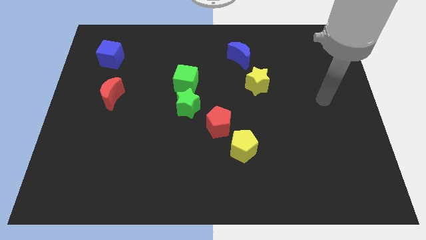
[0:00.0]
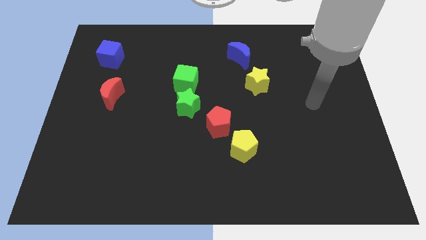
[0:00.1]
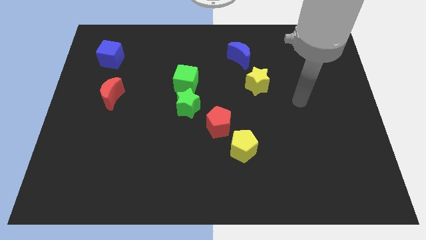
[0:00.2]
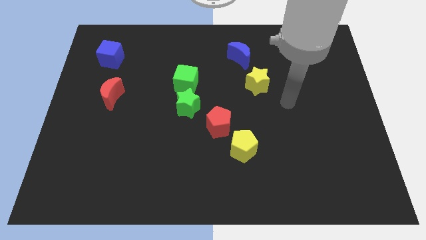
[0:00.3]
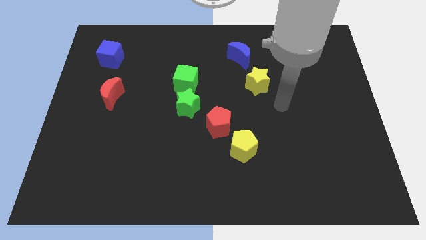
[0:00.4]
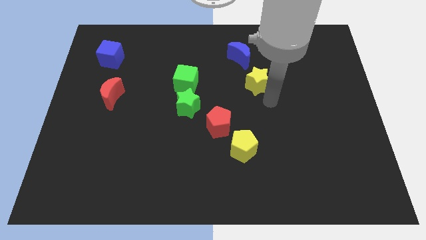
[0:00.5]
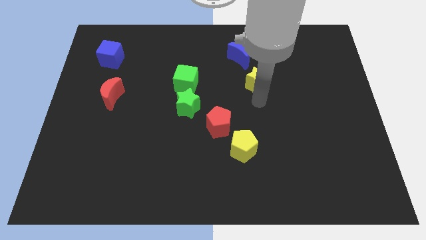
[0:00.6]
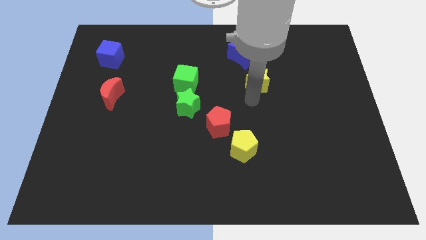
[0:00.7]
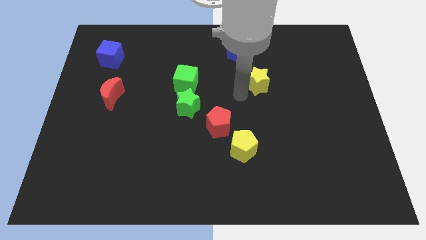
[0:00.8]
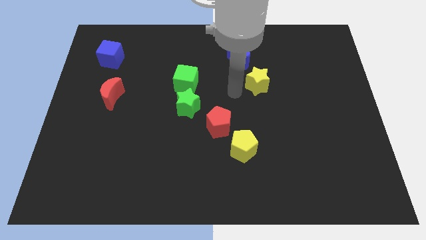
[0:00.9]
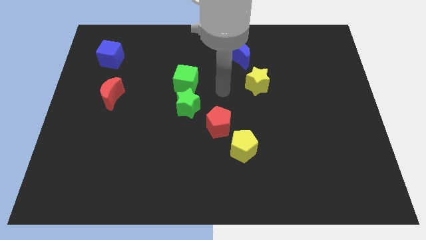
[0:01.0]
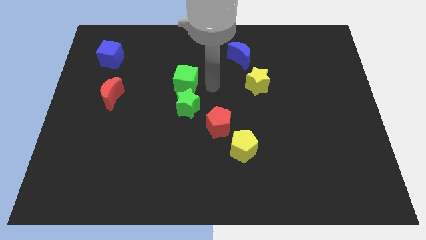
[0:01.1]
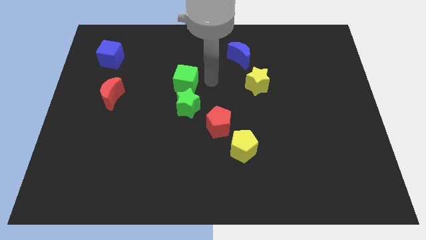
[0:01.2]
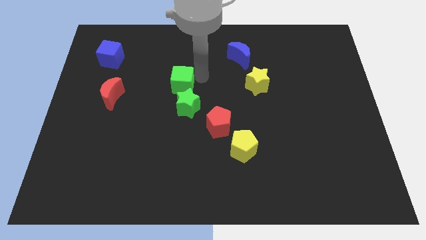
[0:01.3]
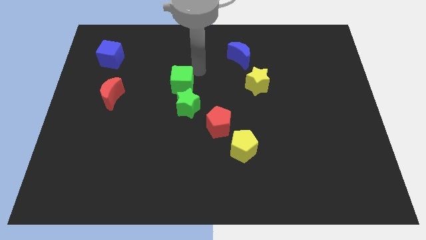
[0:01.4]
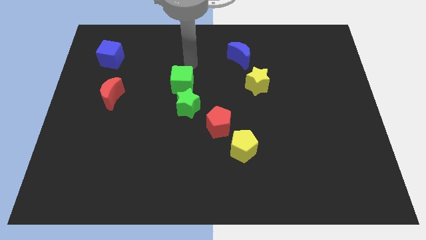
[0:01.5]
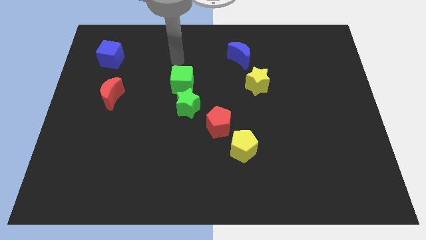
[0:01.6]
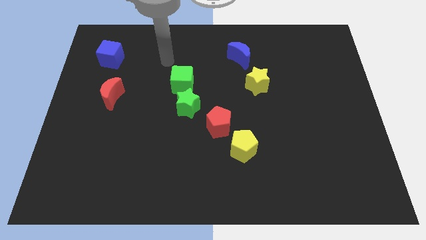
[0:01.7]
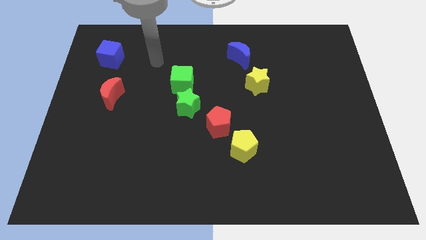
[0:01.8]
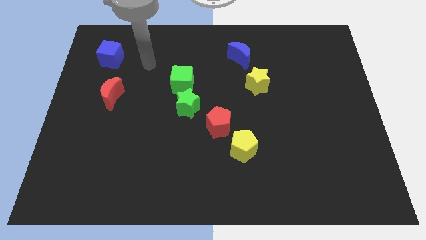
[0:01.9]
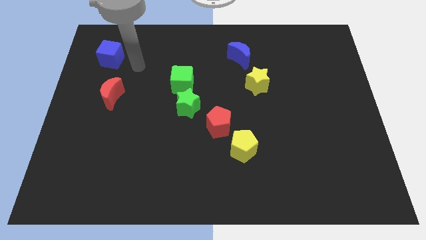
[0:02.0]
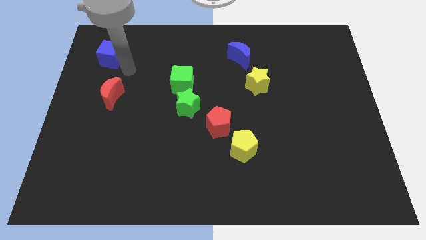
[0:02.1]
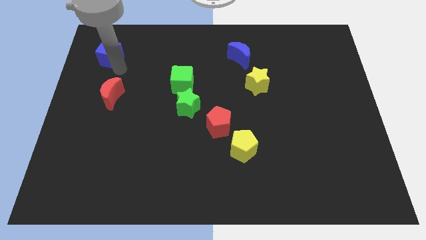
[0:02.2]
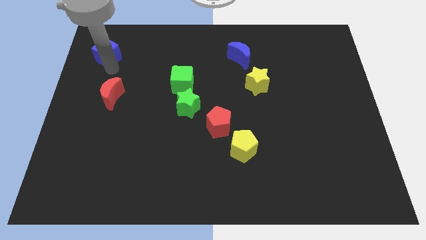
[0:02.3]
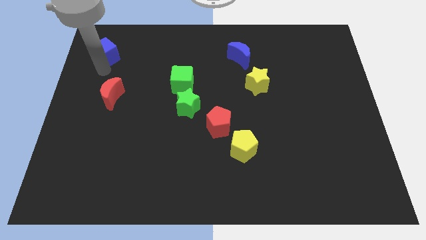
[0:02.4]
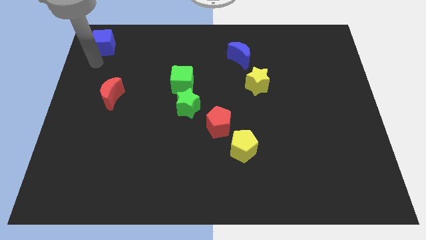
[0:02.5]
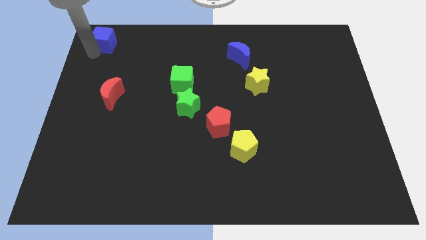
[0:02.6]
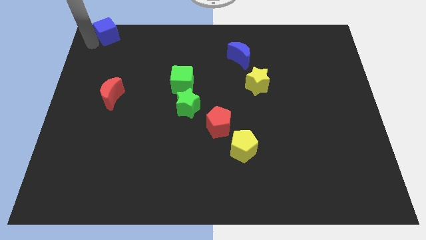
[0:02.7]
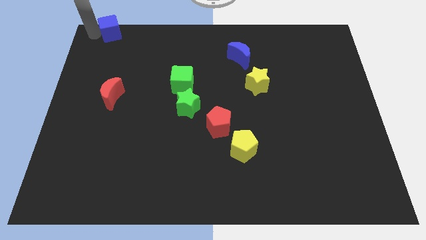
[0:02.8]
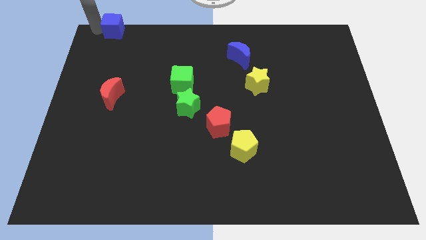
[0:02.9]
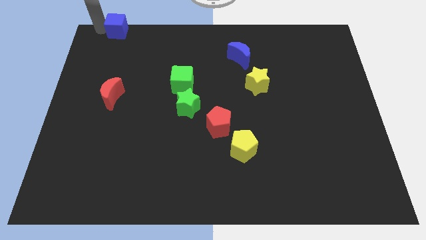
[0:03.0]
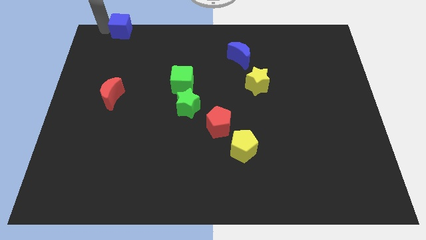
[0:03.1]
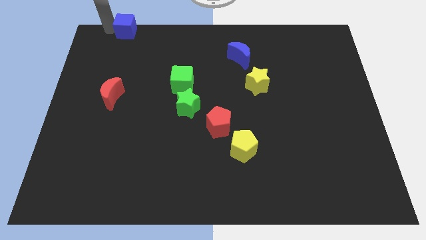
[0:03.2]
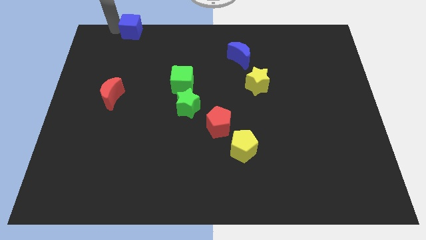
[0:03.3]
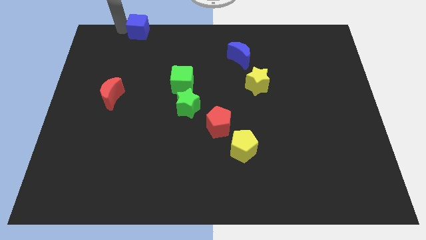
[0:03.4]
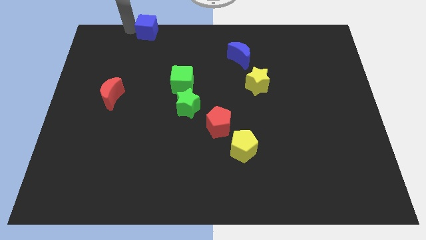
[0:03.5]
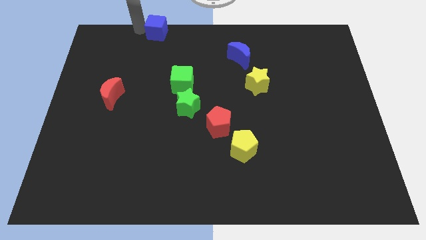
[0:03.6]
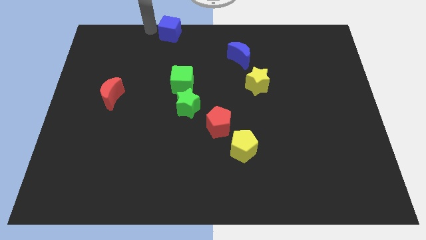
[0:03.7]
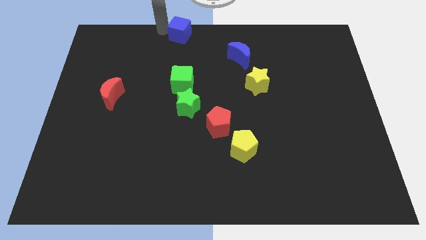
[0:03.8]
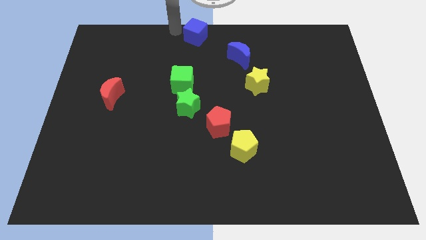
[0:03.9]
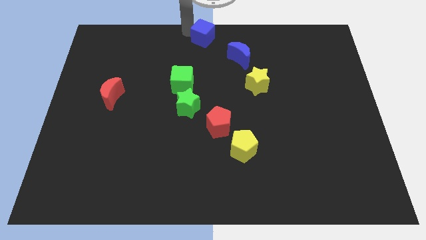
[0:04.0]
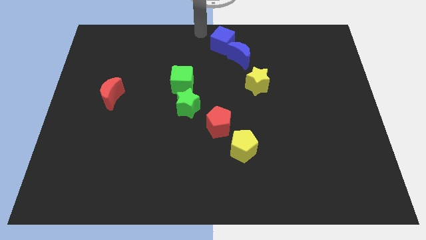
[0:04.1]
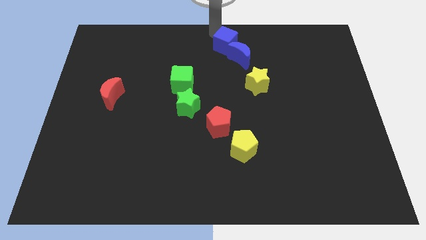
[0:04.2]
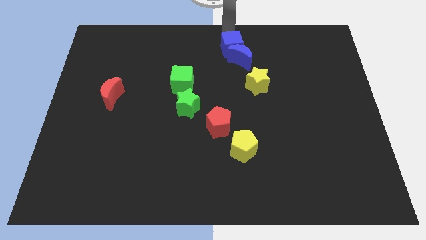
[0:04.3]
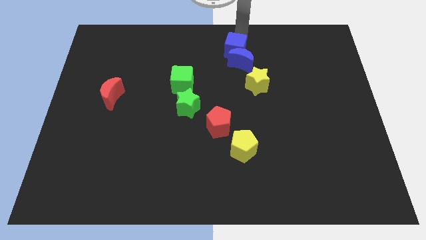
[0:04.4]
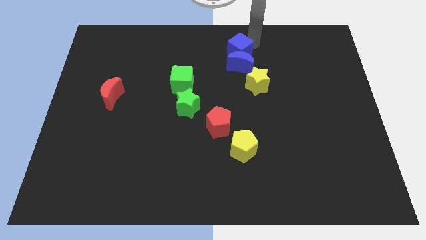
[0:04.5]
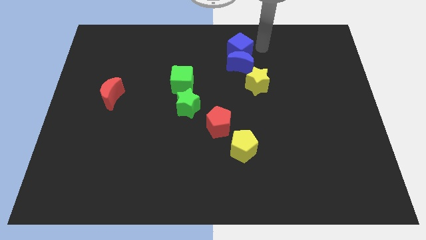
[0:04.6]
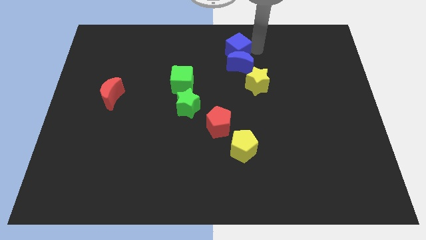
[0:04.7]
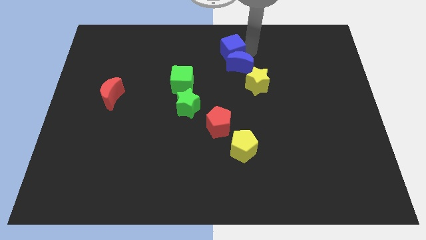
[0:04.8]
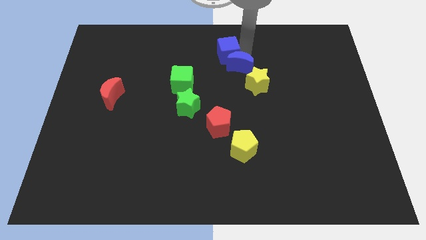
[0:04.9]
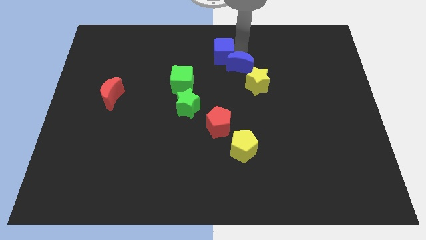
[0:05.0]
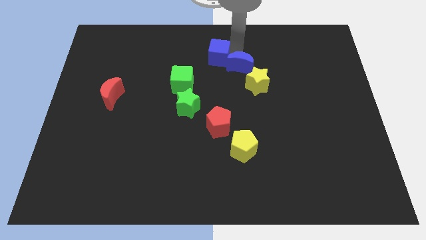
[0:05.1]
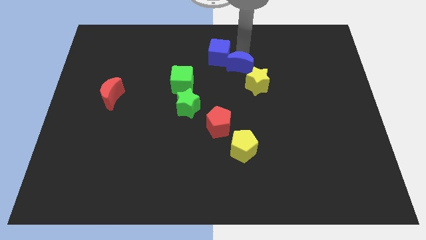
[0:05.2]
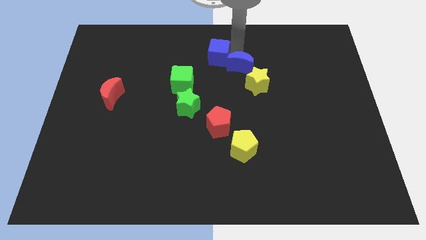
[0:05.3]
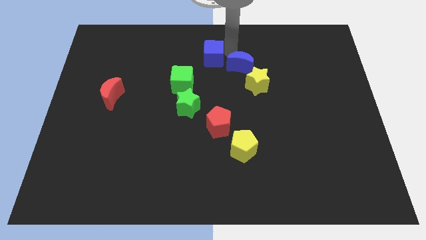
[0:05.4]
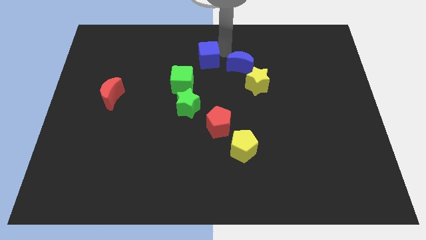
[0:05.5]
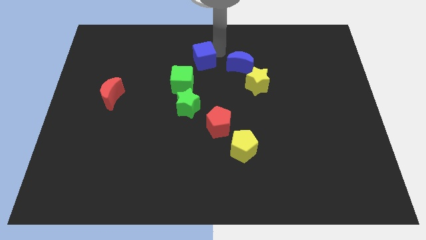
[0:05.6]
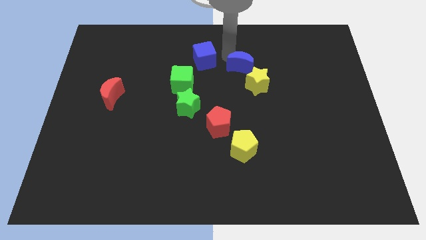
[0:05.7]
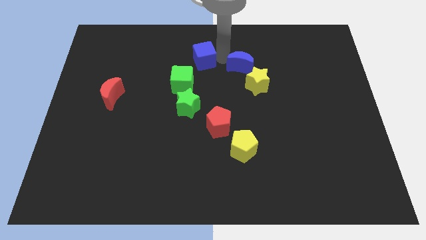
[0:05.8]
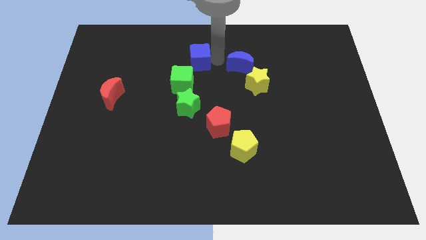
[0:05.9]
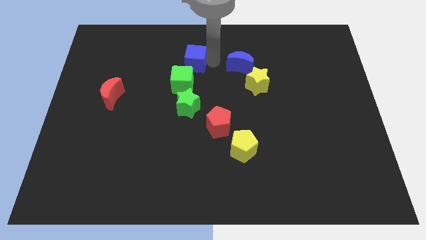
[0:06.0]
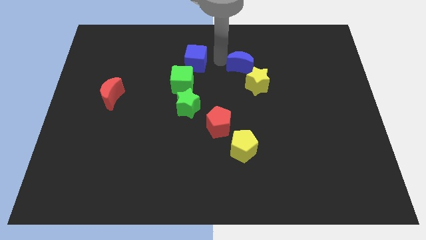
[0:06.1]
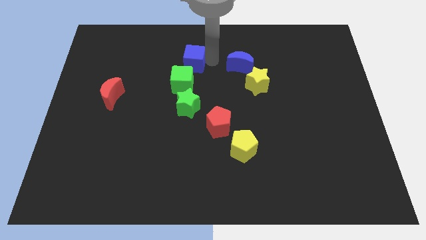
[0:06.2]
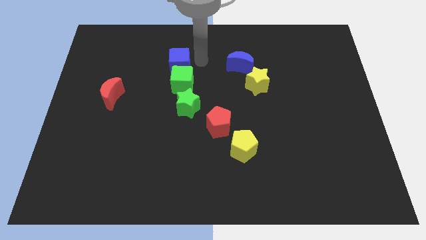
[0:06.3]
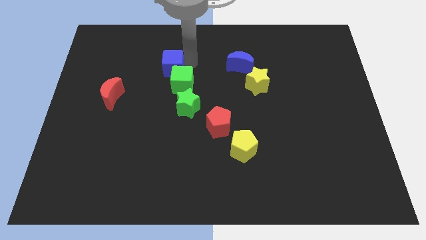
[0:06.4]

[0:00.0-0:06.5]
slide the blue cube close to the green cube

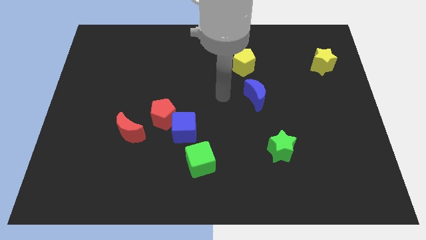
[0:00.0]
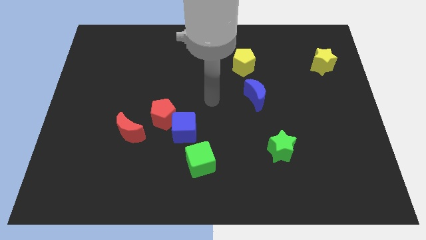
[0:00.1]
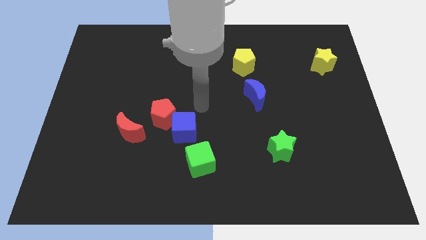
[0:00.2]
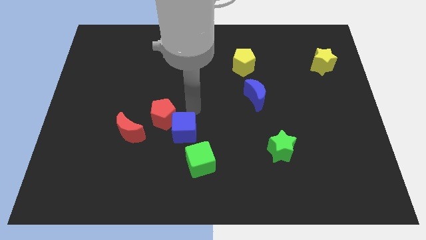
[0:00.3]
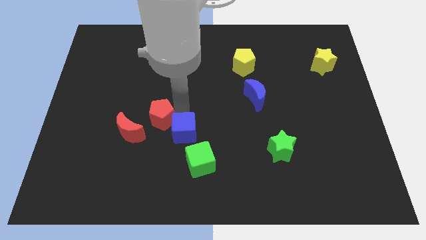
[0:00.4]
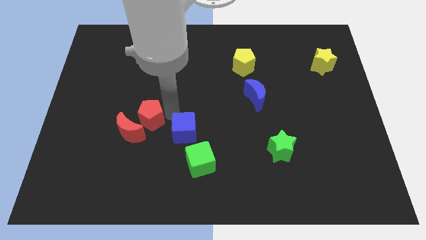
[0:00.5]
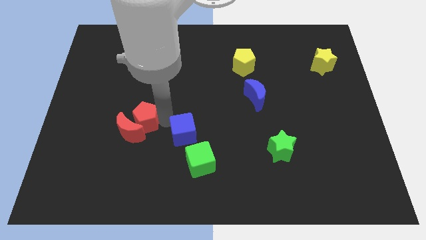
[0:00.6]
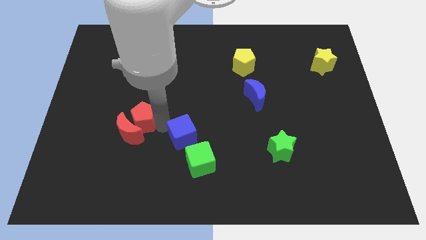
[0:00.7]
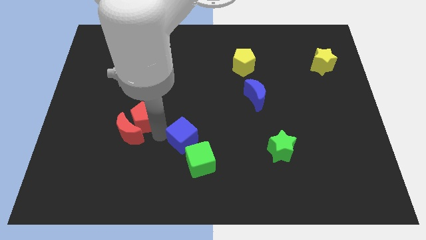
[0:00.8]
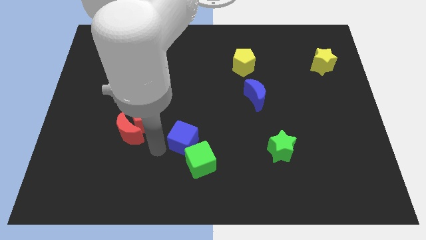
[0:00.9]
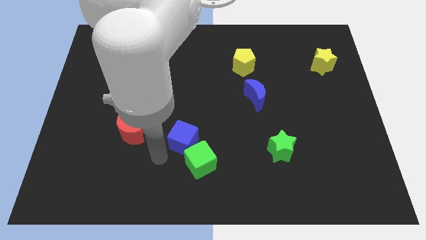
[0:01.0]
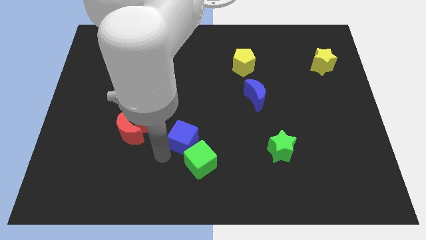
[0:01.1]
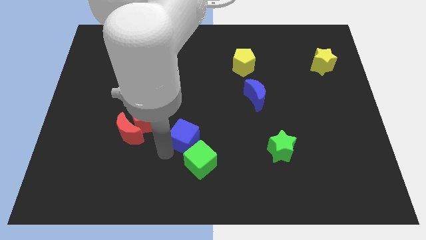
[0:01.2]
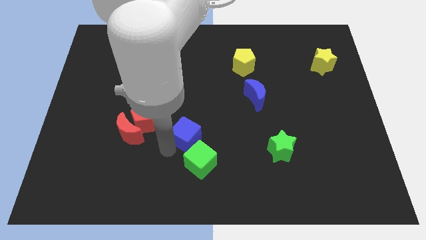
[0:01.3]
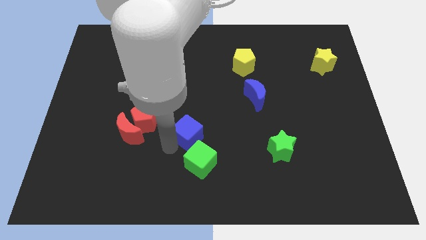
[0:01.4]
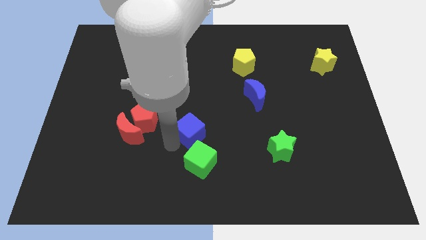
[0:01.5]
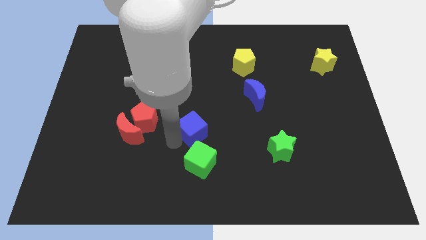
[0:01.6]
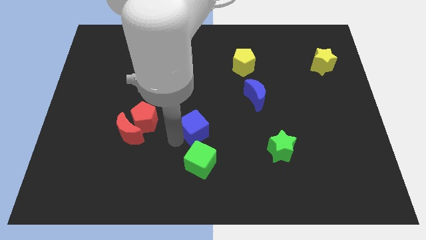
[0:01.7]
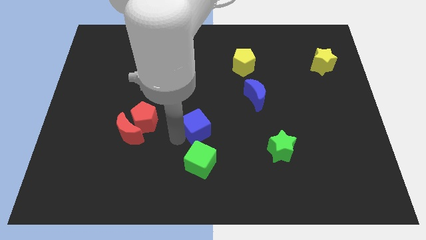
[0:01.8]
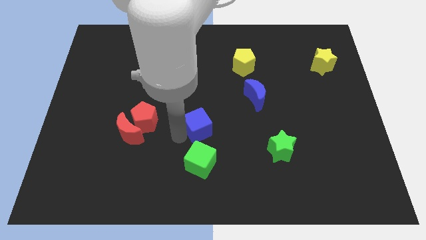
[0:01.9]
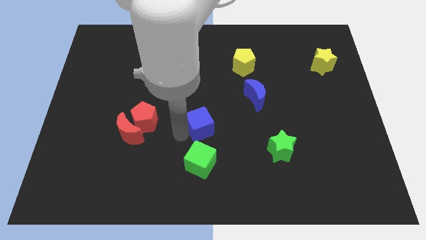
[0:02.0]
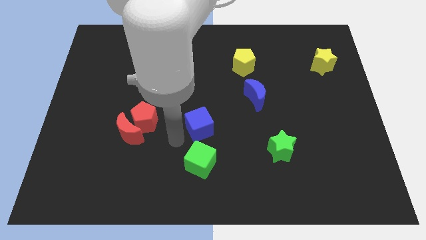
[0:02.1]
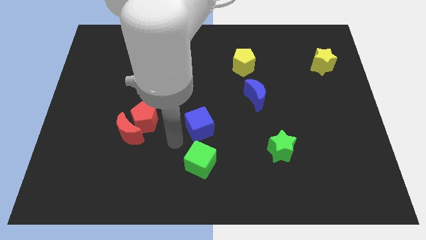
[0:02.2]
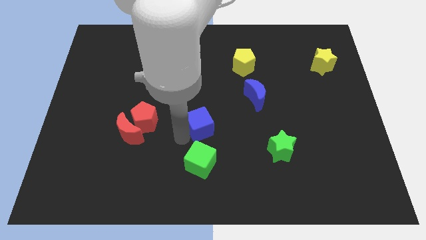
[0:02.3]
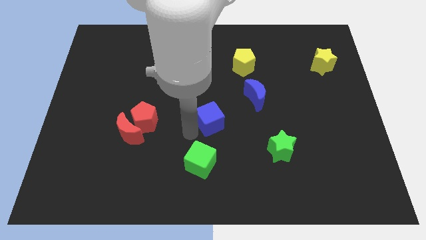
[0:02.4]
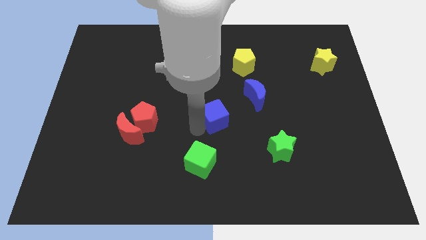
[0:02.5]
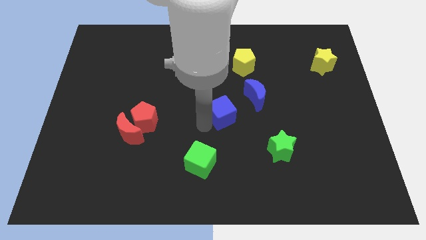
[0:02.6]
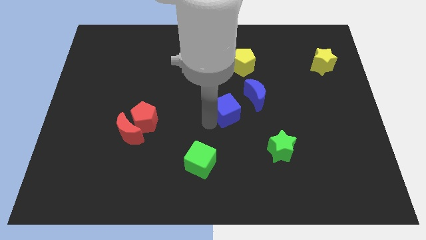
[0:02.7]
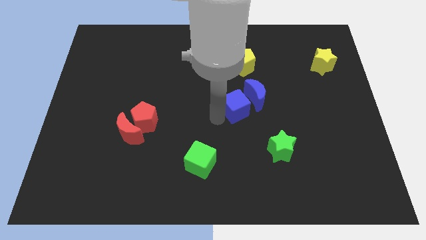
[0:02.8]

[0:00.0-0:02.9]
push the blue cube to the blue moon
